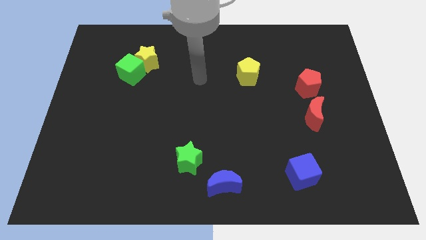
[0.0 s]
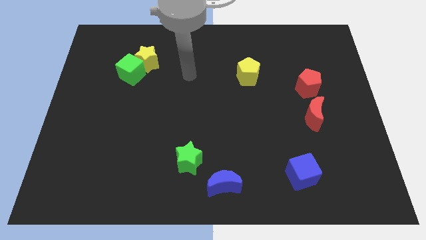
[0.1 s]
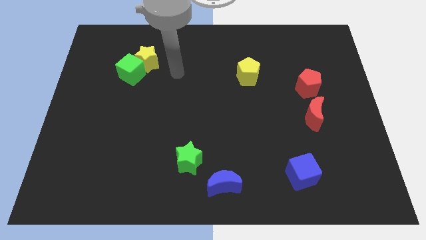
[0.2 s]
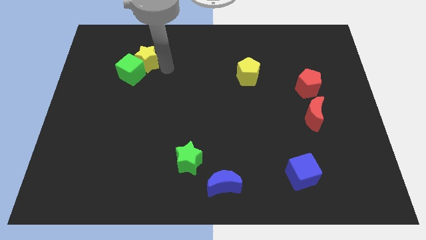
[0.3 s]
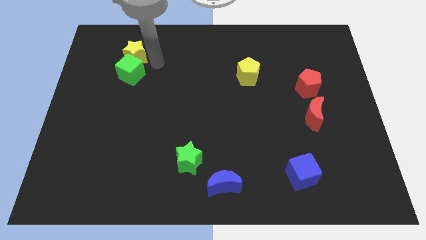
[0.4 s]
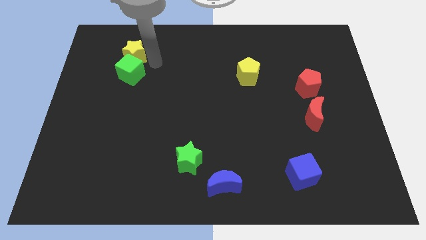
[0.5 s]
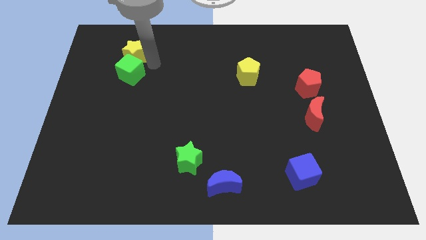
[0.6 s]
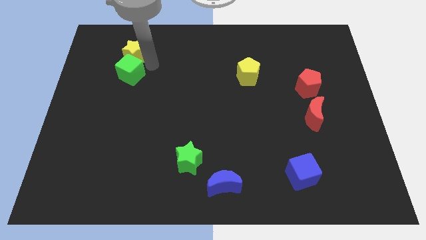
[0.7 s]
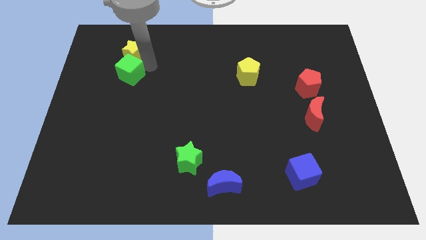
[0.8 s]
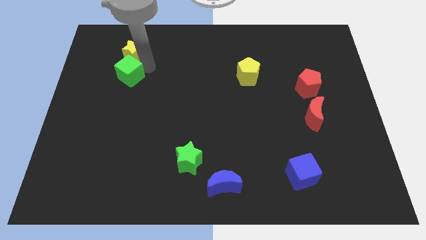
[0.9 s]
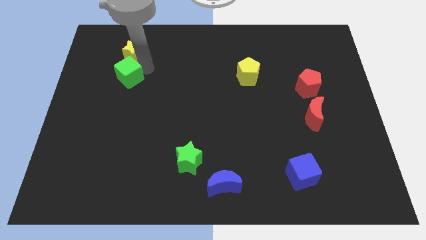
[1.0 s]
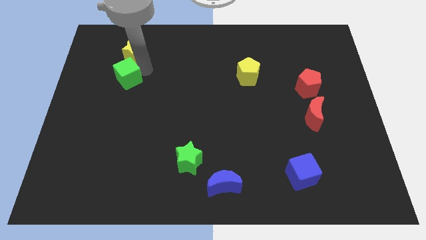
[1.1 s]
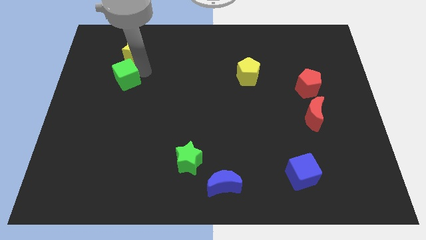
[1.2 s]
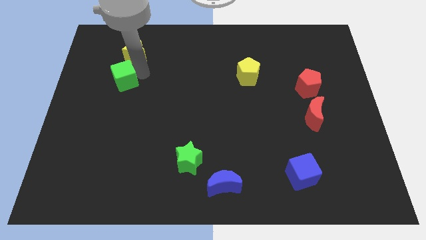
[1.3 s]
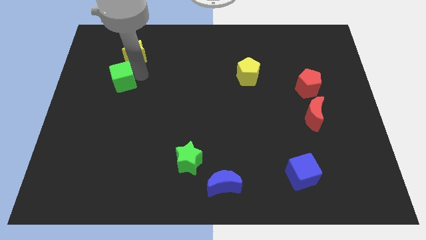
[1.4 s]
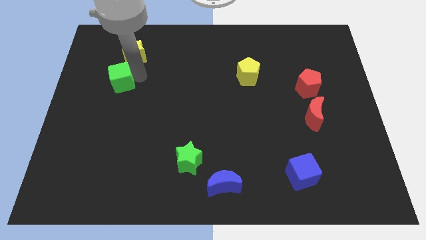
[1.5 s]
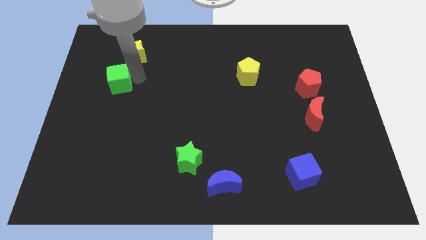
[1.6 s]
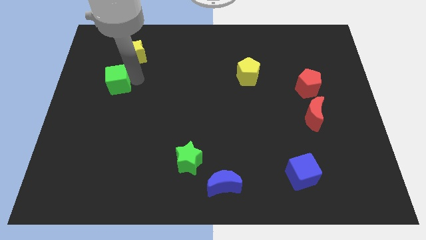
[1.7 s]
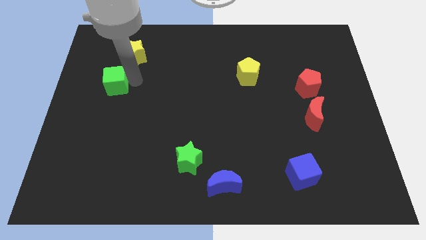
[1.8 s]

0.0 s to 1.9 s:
pull the green cube apart from the yellow star

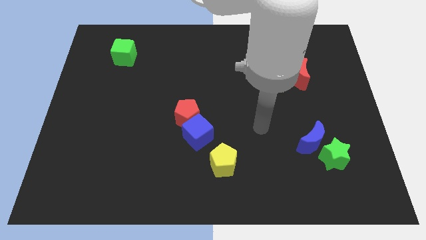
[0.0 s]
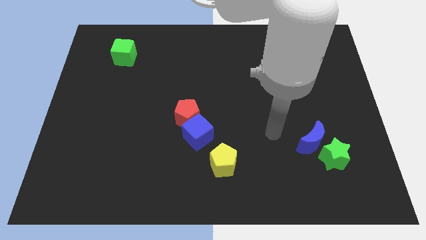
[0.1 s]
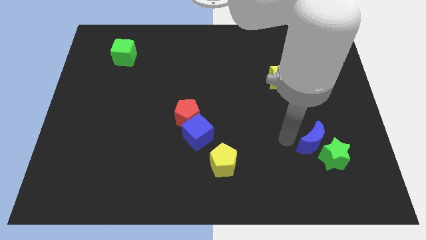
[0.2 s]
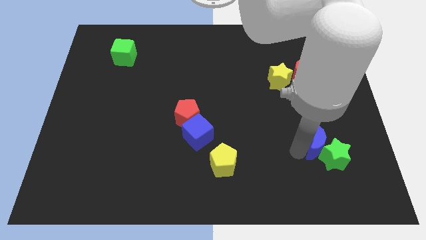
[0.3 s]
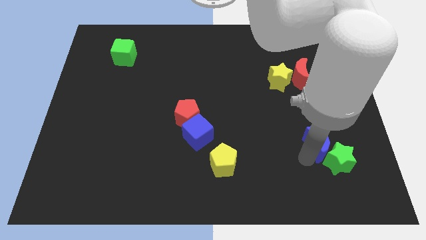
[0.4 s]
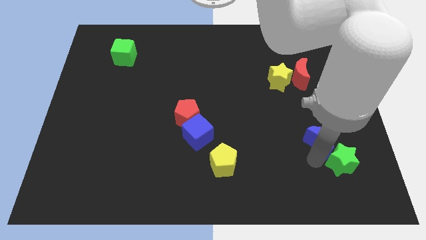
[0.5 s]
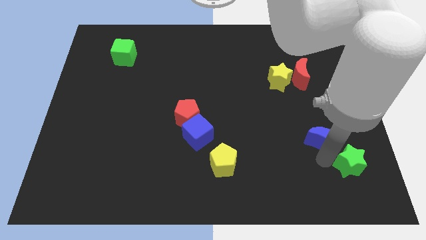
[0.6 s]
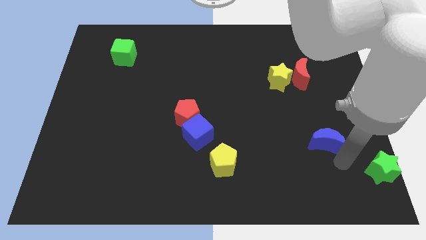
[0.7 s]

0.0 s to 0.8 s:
move the blue moon away from the green star

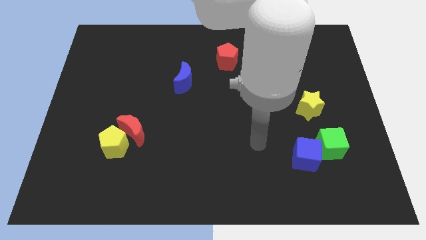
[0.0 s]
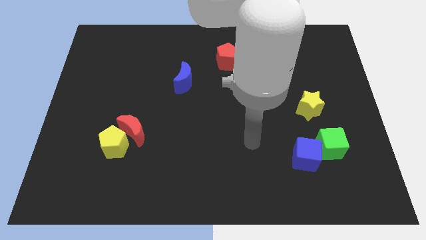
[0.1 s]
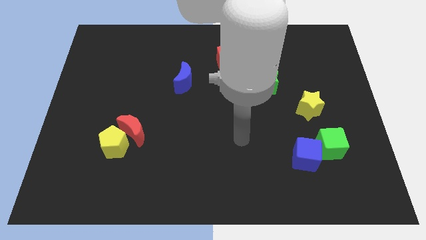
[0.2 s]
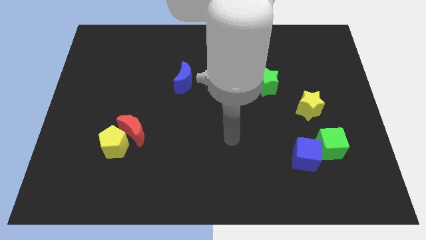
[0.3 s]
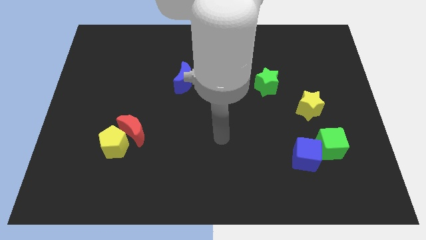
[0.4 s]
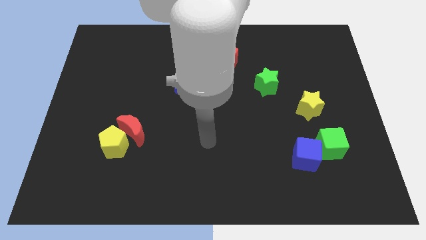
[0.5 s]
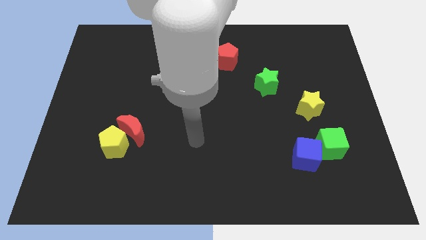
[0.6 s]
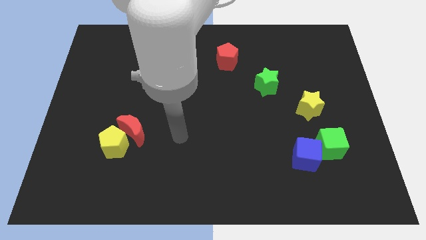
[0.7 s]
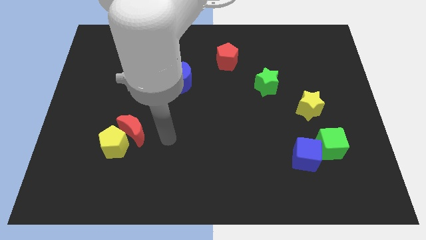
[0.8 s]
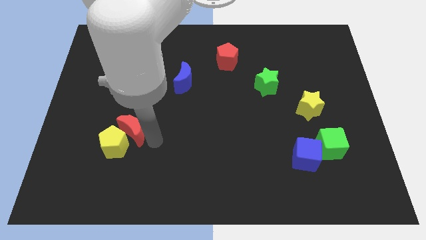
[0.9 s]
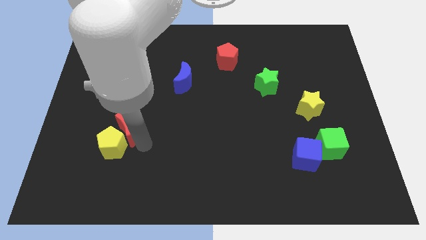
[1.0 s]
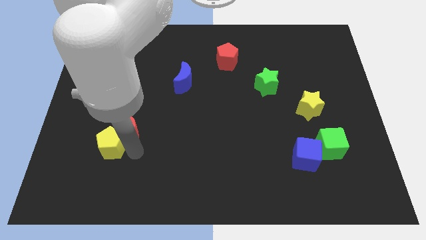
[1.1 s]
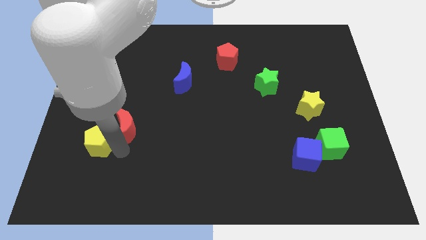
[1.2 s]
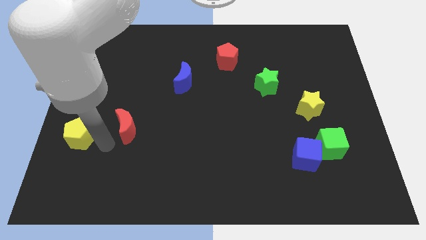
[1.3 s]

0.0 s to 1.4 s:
move the red moon away from the yellow pentagon

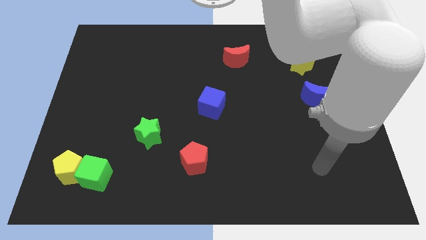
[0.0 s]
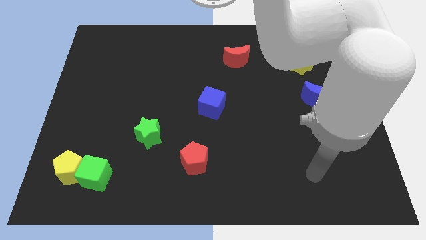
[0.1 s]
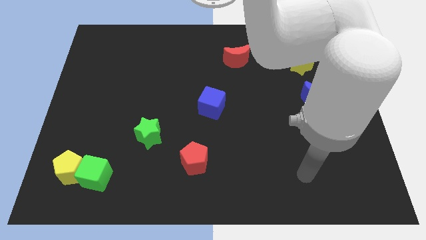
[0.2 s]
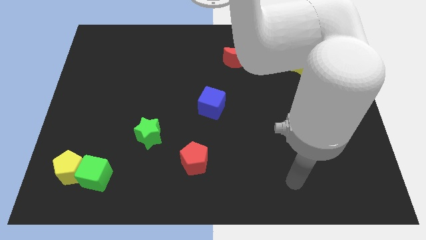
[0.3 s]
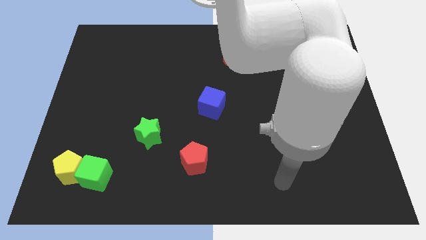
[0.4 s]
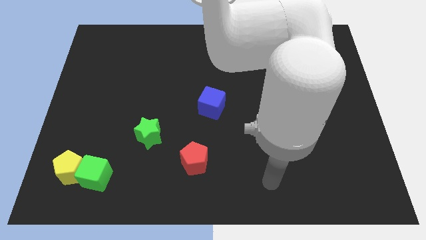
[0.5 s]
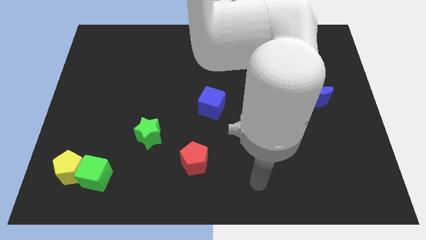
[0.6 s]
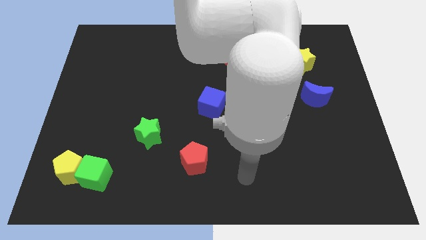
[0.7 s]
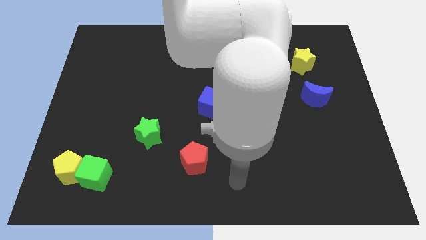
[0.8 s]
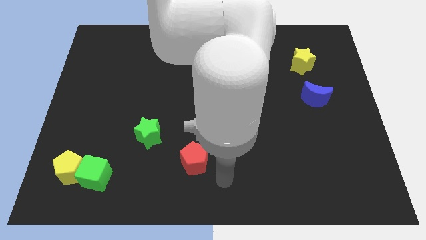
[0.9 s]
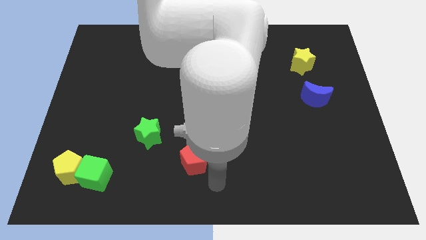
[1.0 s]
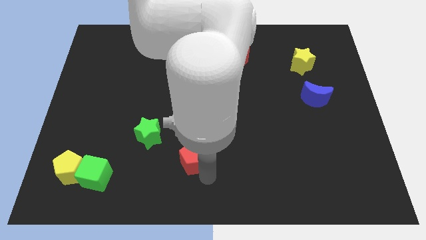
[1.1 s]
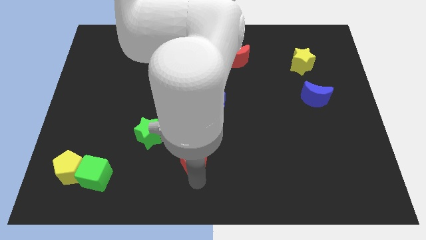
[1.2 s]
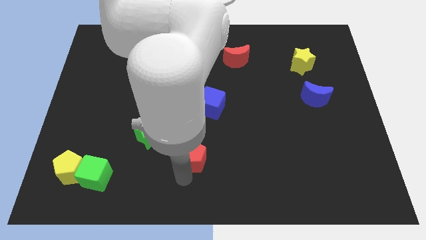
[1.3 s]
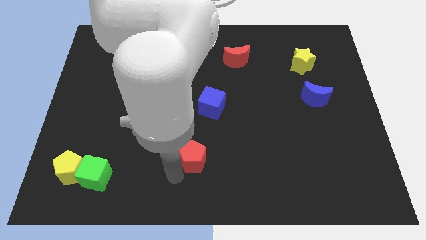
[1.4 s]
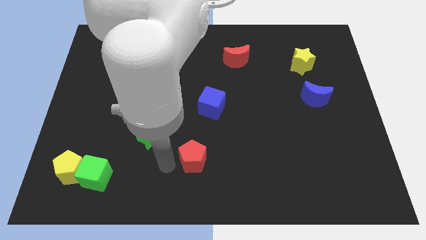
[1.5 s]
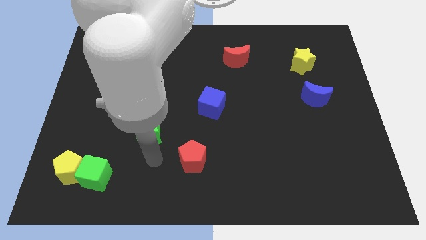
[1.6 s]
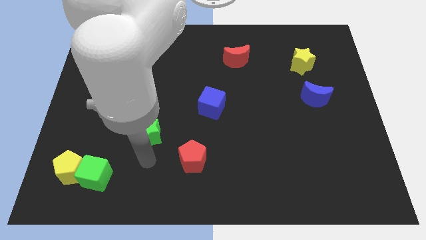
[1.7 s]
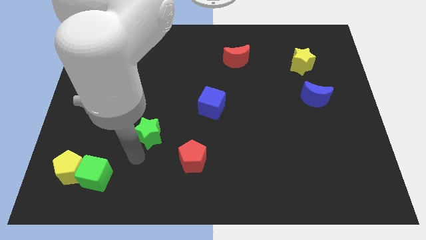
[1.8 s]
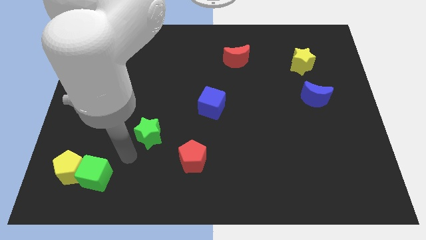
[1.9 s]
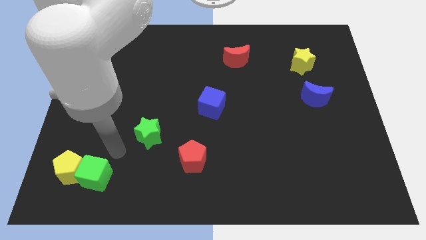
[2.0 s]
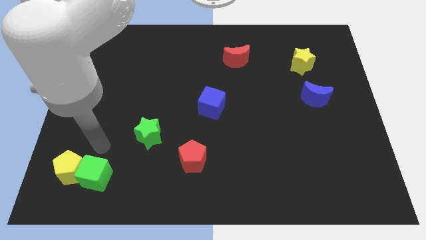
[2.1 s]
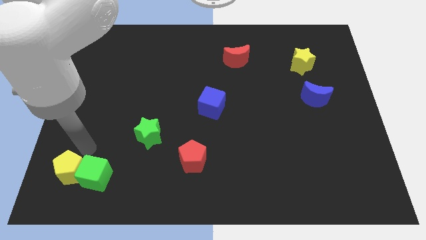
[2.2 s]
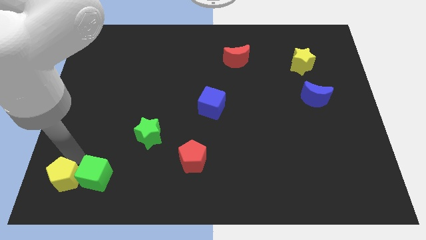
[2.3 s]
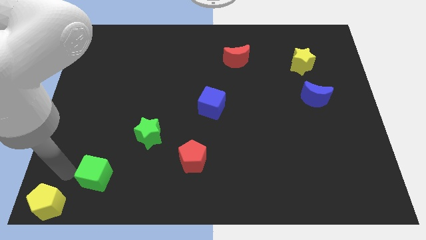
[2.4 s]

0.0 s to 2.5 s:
pull the green cube apart from the yellow pentagon

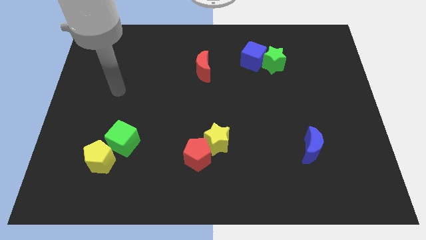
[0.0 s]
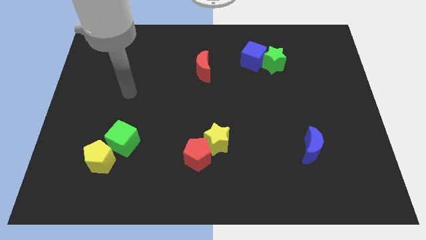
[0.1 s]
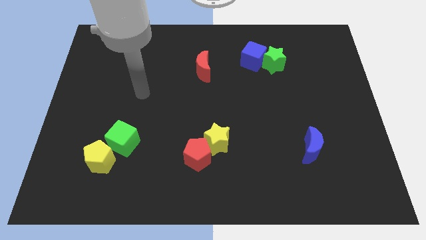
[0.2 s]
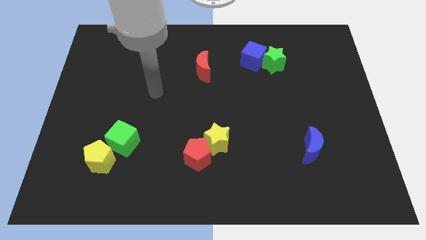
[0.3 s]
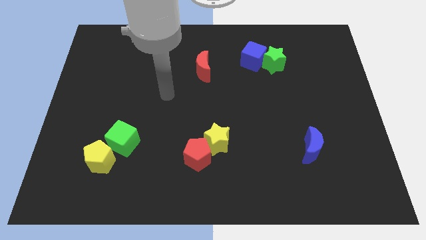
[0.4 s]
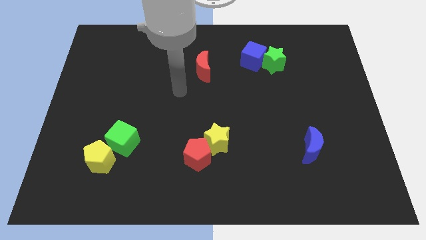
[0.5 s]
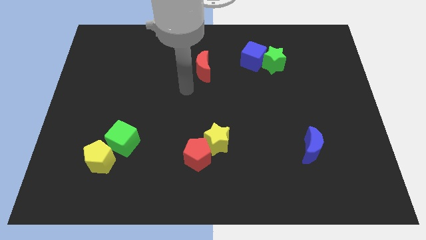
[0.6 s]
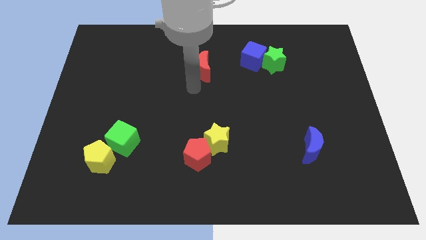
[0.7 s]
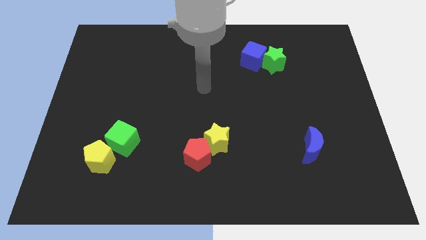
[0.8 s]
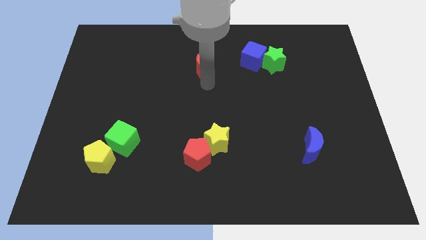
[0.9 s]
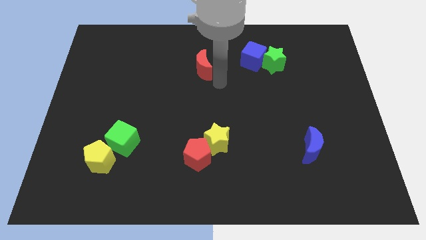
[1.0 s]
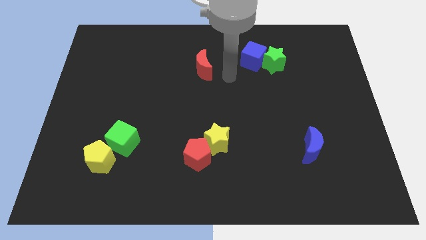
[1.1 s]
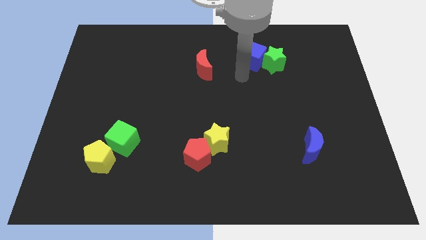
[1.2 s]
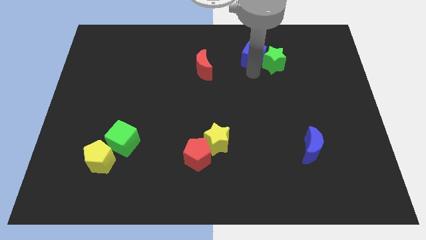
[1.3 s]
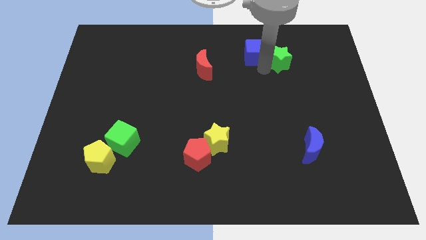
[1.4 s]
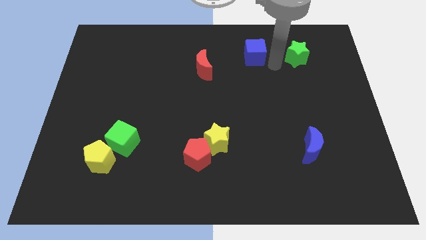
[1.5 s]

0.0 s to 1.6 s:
separate the blue cube from the green star

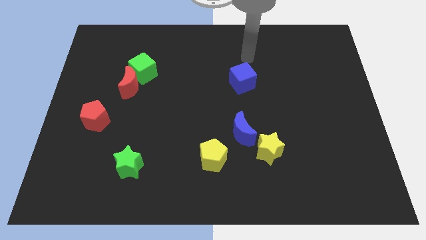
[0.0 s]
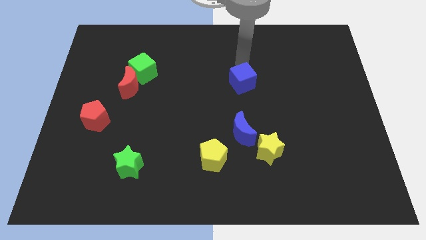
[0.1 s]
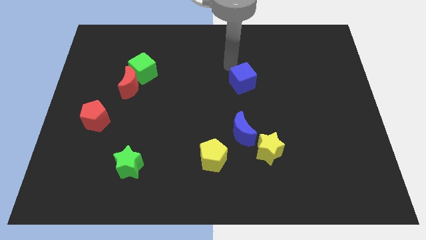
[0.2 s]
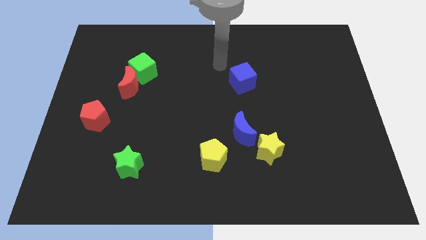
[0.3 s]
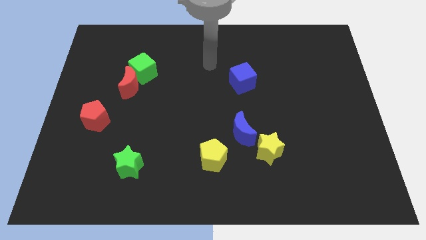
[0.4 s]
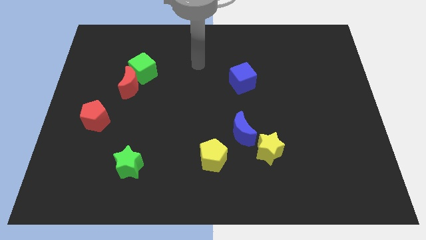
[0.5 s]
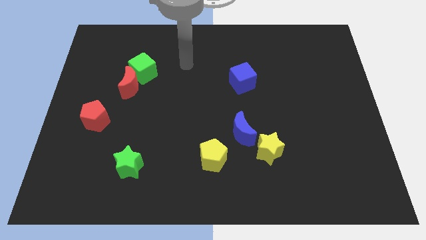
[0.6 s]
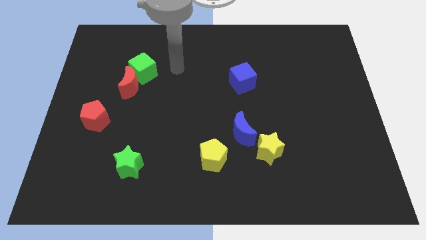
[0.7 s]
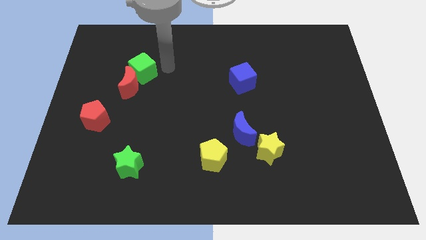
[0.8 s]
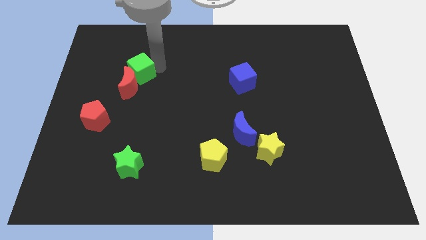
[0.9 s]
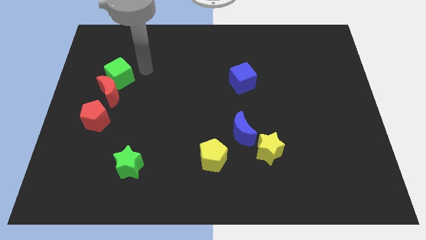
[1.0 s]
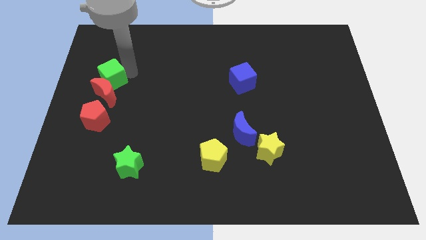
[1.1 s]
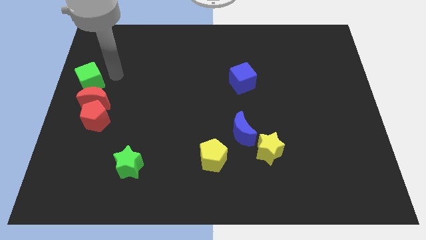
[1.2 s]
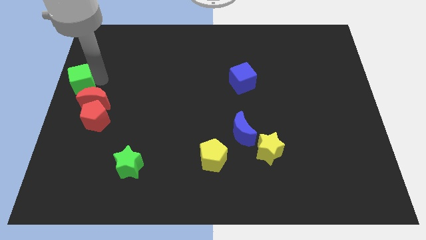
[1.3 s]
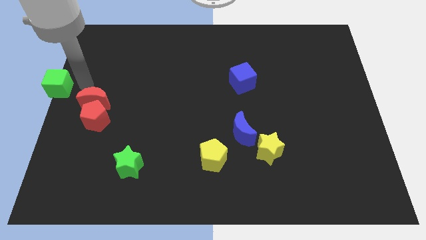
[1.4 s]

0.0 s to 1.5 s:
move the red moon away from the green cube
